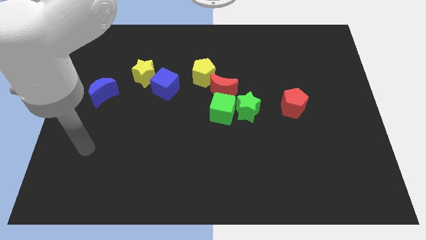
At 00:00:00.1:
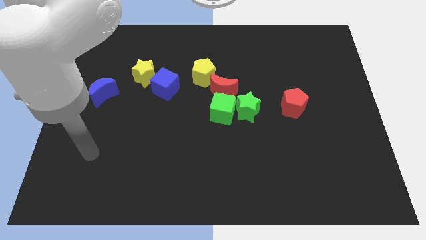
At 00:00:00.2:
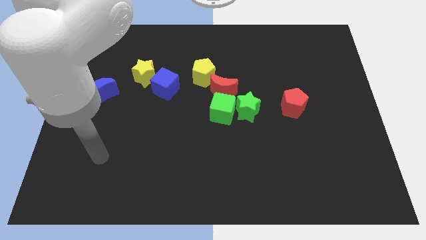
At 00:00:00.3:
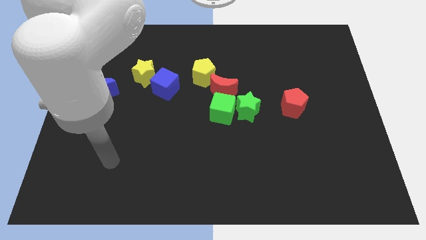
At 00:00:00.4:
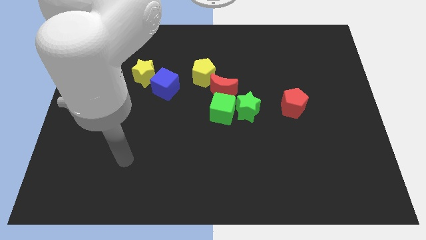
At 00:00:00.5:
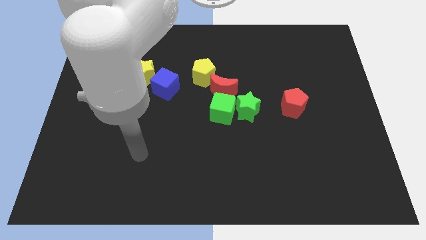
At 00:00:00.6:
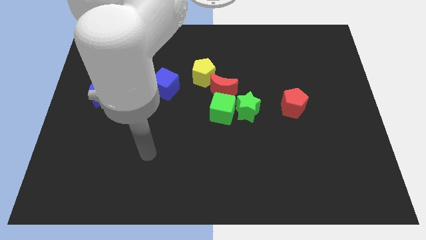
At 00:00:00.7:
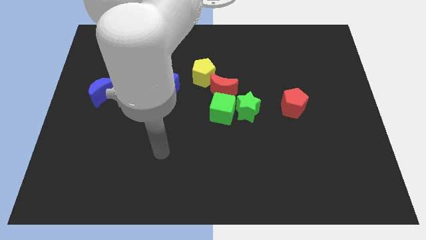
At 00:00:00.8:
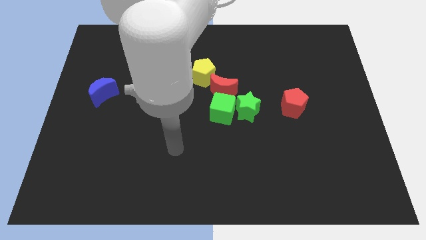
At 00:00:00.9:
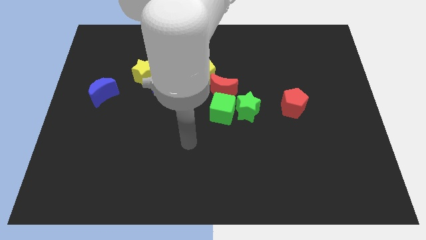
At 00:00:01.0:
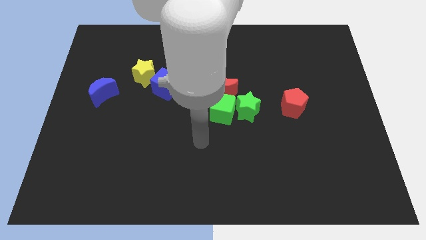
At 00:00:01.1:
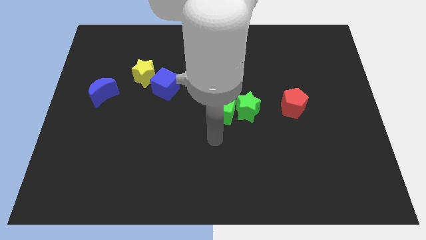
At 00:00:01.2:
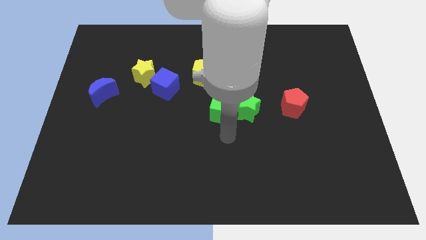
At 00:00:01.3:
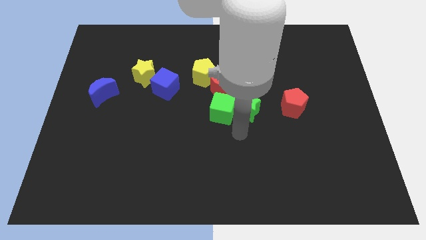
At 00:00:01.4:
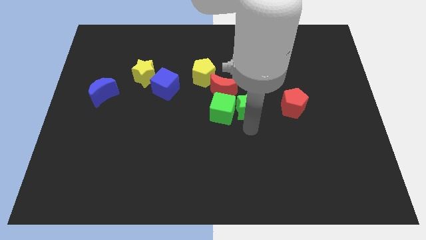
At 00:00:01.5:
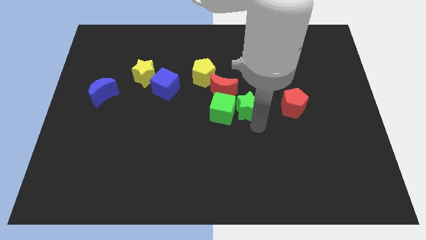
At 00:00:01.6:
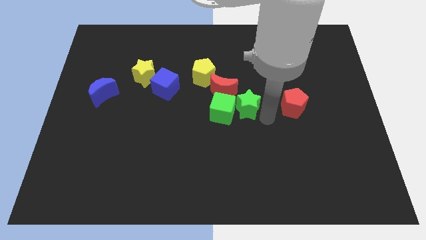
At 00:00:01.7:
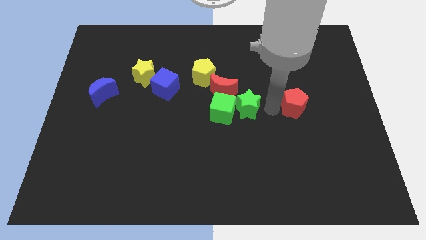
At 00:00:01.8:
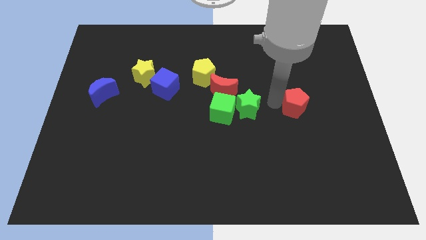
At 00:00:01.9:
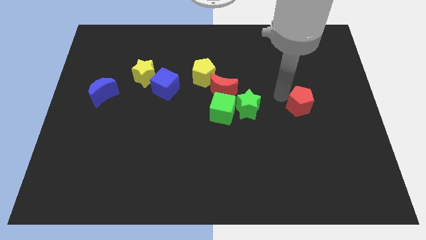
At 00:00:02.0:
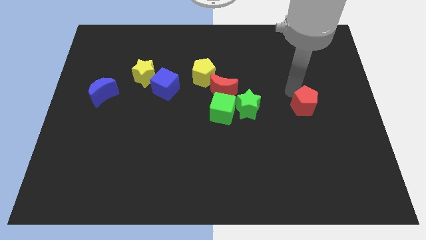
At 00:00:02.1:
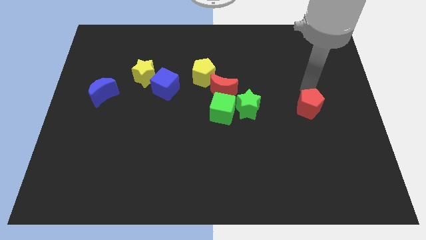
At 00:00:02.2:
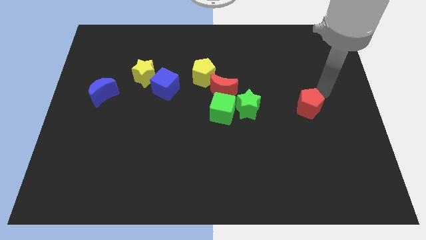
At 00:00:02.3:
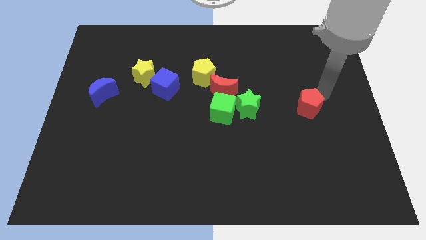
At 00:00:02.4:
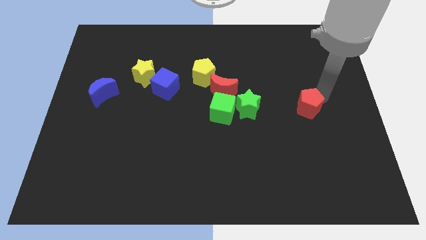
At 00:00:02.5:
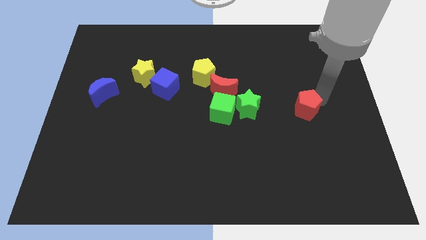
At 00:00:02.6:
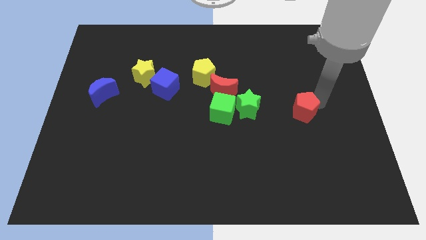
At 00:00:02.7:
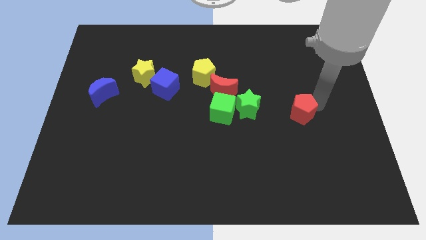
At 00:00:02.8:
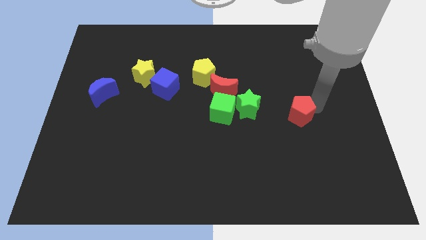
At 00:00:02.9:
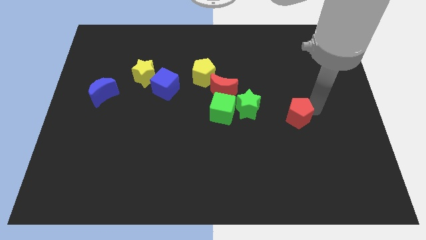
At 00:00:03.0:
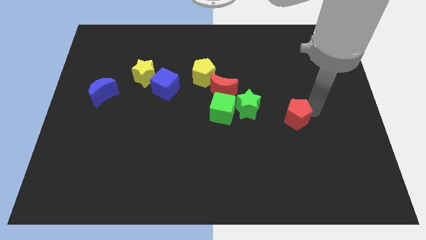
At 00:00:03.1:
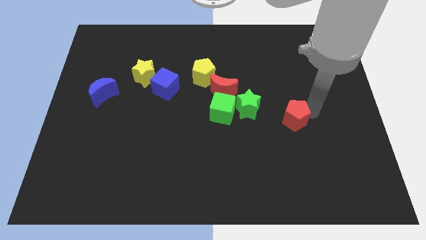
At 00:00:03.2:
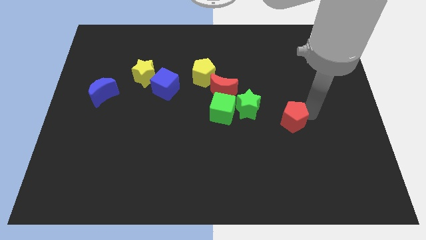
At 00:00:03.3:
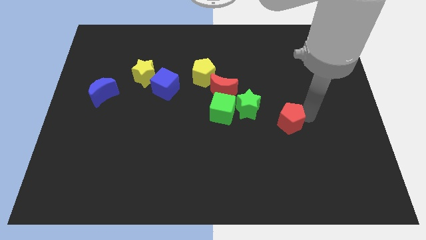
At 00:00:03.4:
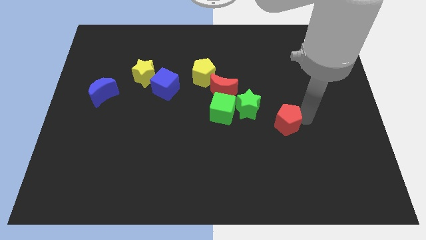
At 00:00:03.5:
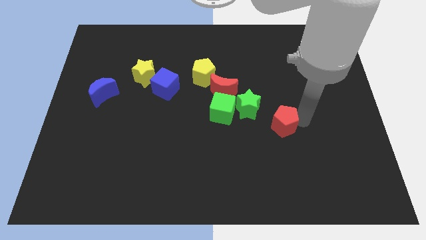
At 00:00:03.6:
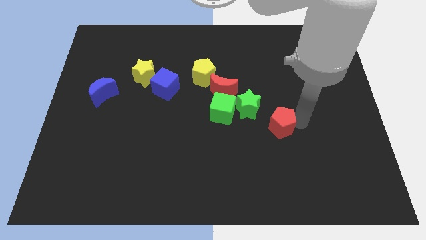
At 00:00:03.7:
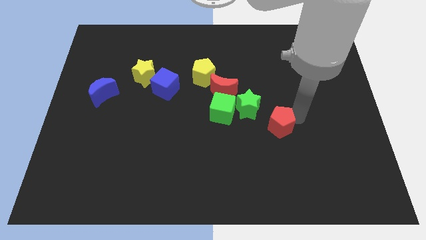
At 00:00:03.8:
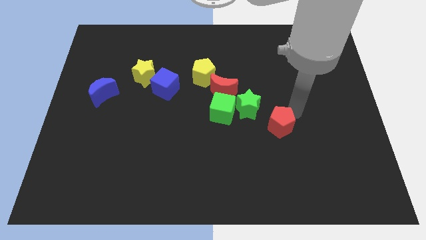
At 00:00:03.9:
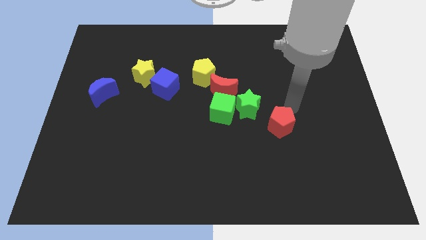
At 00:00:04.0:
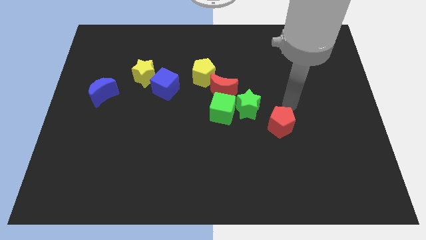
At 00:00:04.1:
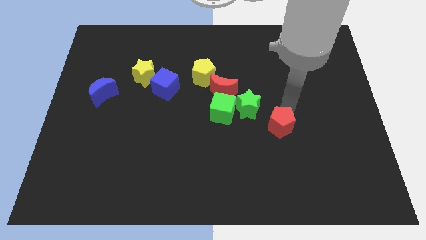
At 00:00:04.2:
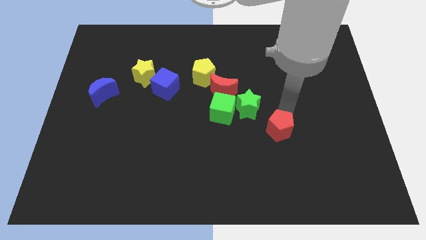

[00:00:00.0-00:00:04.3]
move the red pentagon somewhat downwards and left

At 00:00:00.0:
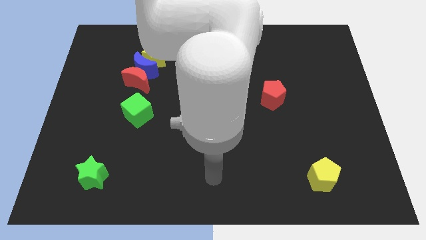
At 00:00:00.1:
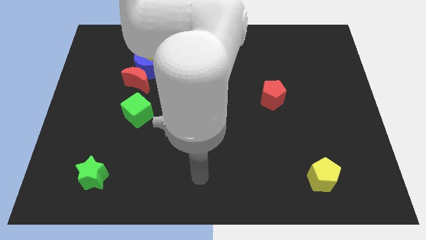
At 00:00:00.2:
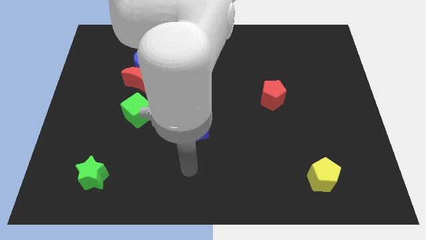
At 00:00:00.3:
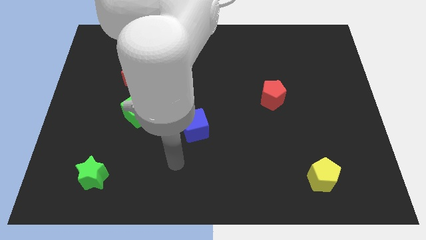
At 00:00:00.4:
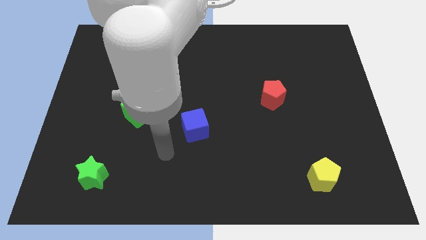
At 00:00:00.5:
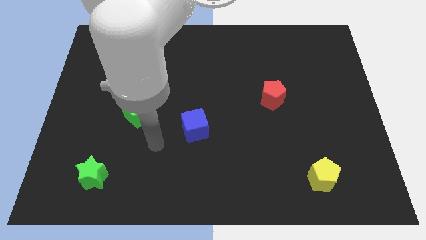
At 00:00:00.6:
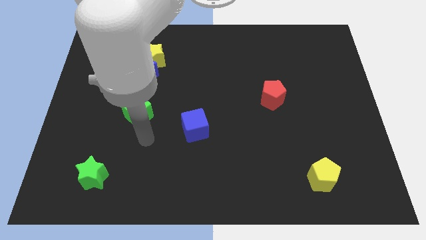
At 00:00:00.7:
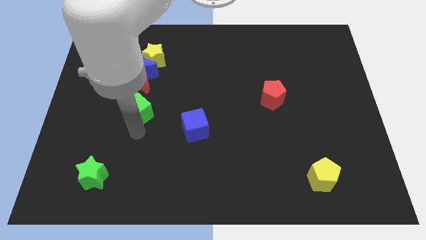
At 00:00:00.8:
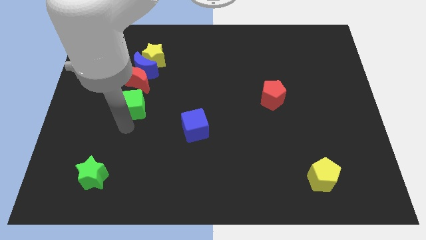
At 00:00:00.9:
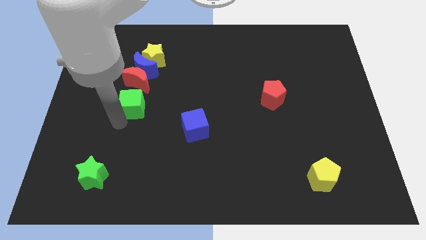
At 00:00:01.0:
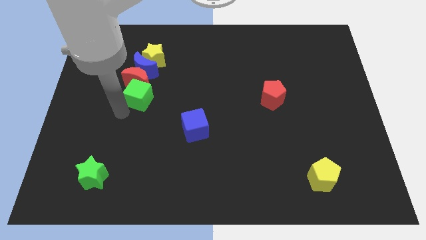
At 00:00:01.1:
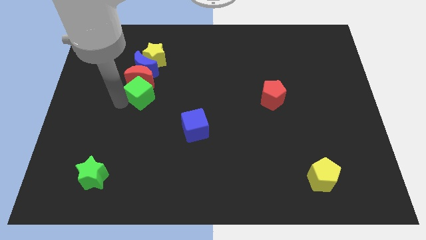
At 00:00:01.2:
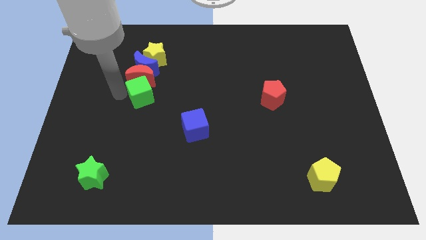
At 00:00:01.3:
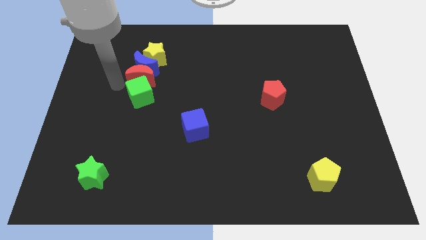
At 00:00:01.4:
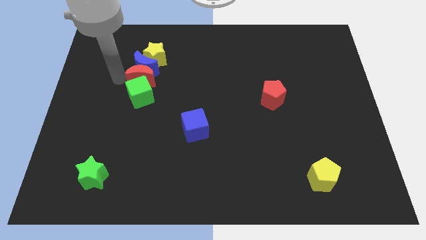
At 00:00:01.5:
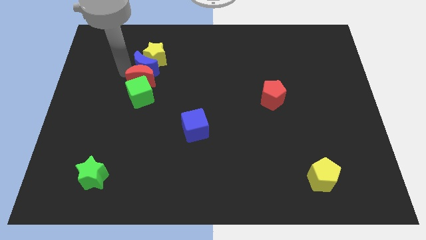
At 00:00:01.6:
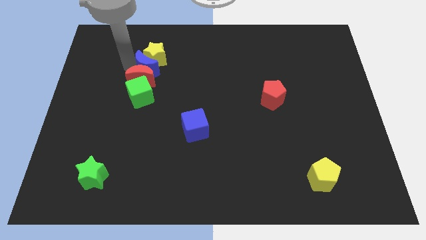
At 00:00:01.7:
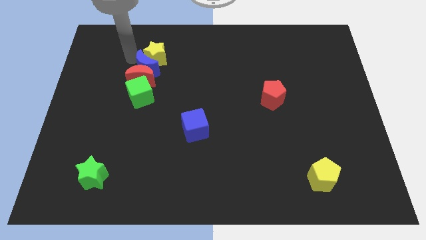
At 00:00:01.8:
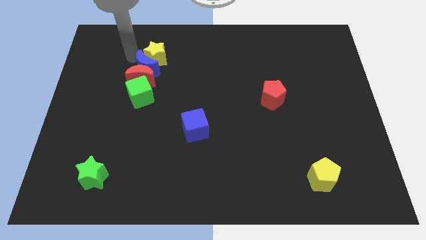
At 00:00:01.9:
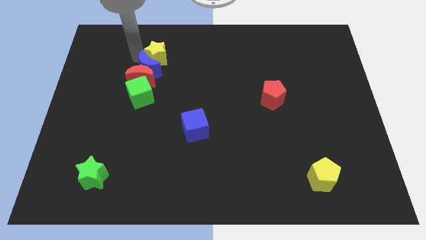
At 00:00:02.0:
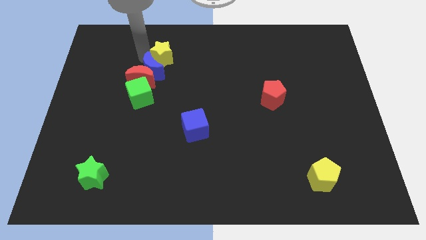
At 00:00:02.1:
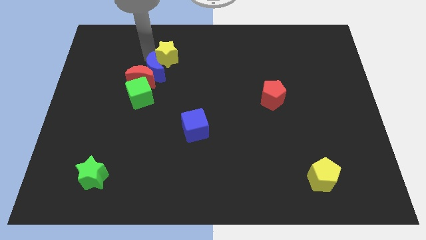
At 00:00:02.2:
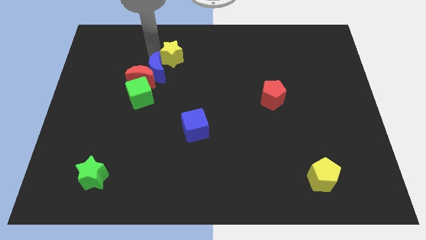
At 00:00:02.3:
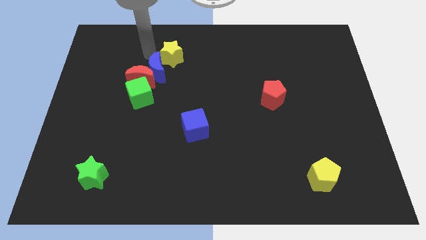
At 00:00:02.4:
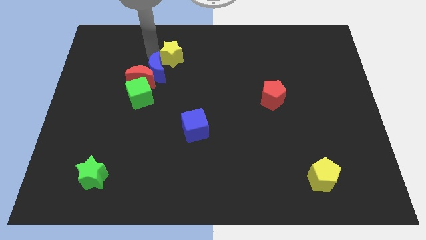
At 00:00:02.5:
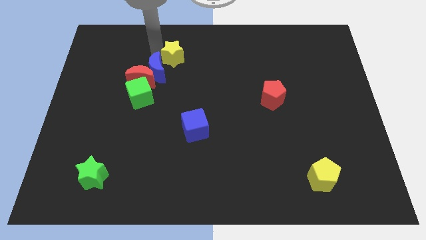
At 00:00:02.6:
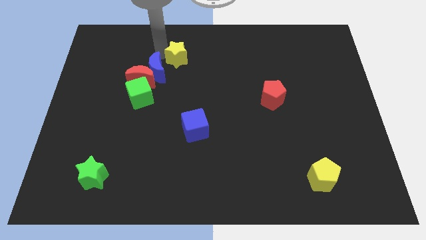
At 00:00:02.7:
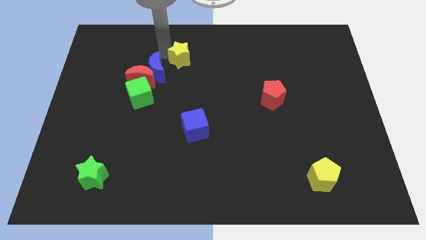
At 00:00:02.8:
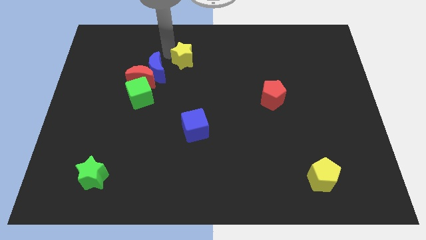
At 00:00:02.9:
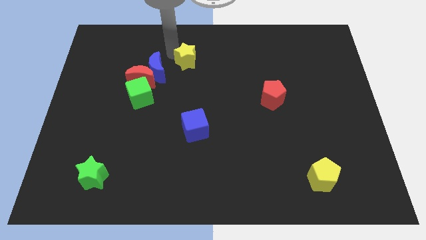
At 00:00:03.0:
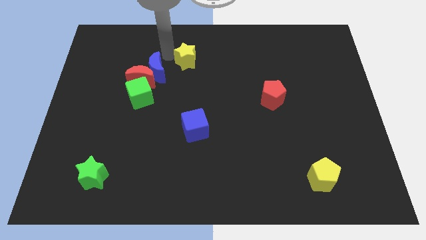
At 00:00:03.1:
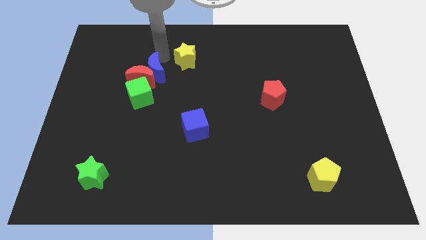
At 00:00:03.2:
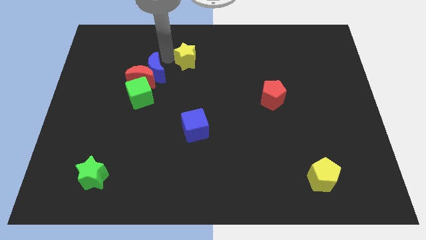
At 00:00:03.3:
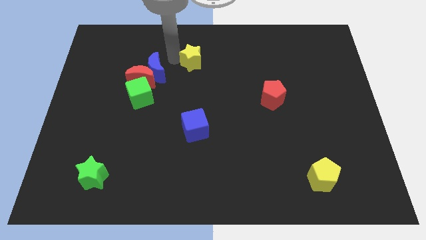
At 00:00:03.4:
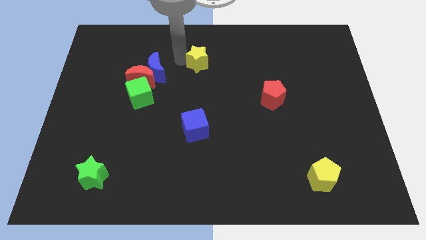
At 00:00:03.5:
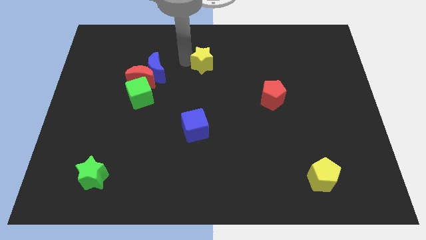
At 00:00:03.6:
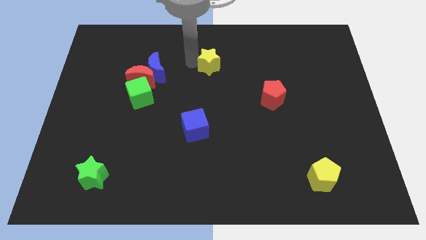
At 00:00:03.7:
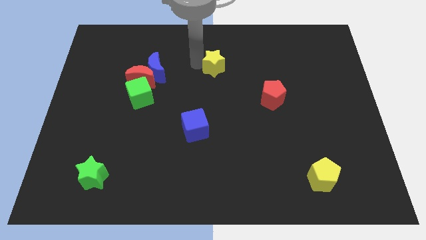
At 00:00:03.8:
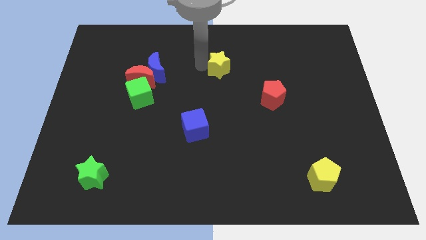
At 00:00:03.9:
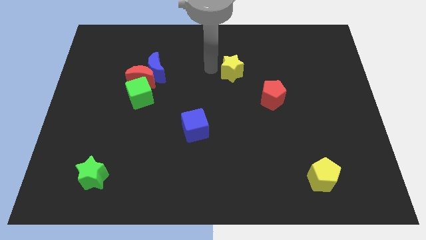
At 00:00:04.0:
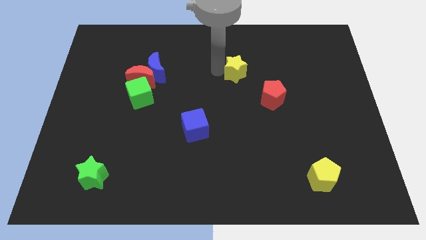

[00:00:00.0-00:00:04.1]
slide the yellow star to the right
